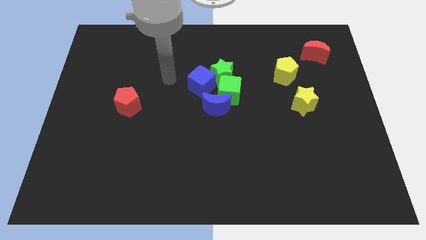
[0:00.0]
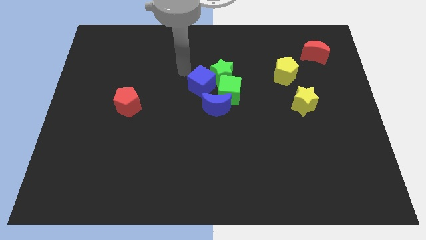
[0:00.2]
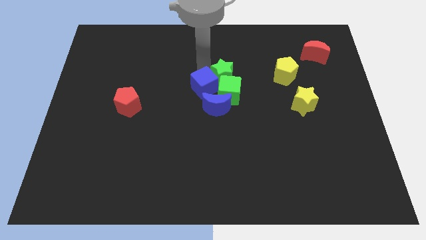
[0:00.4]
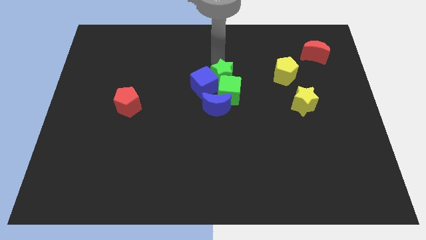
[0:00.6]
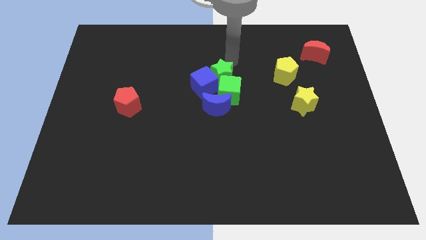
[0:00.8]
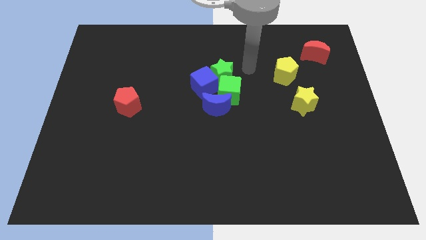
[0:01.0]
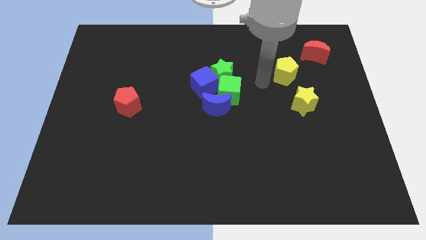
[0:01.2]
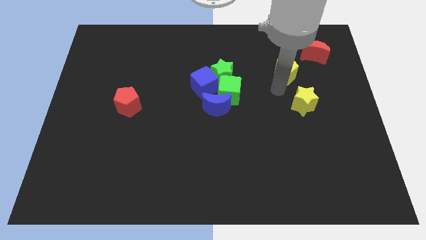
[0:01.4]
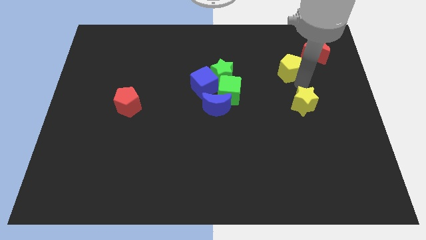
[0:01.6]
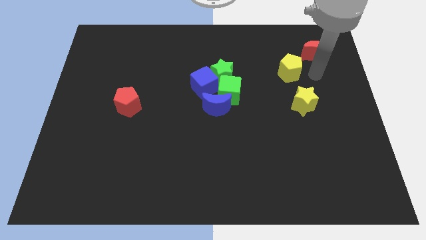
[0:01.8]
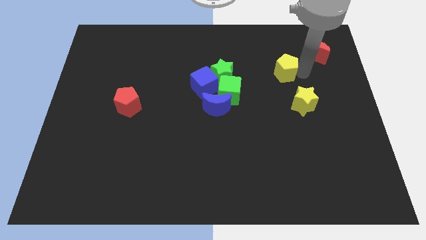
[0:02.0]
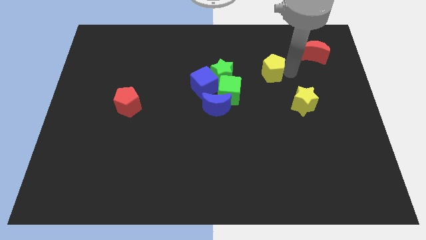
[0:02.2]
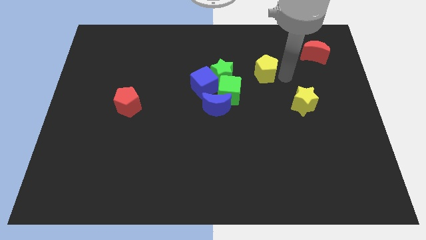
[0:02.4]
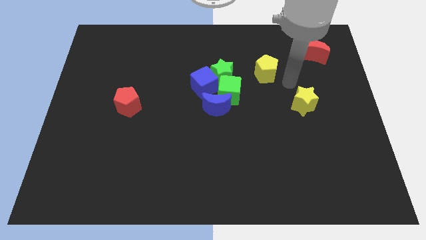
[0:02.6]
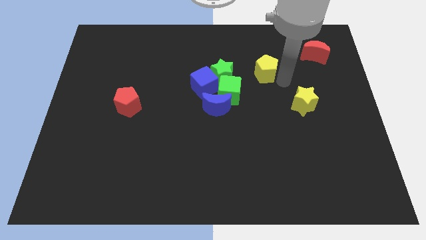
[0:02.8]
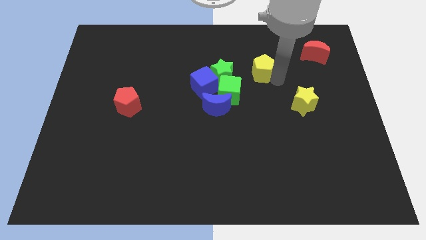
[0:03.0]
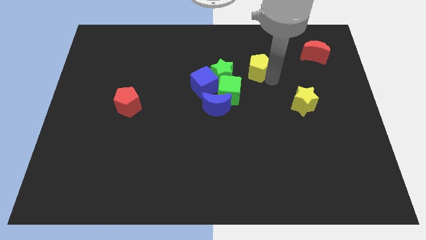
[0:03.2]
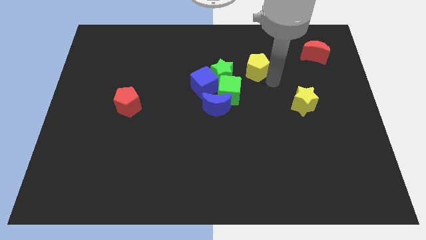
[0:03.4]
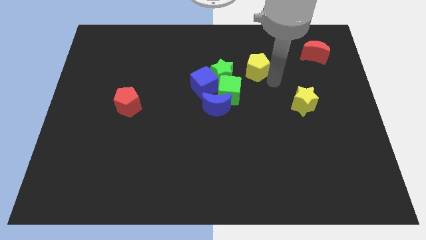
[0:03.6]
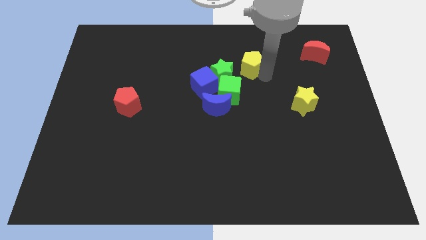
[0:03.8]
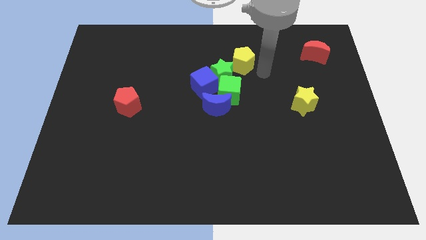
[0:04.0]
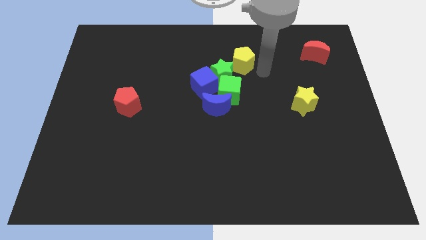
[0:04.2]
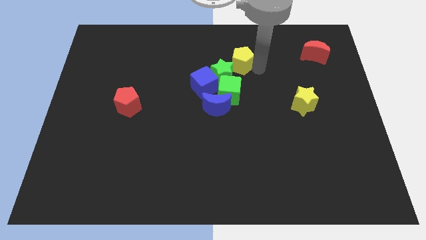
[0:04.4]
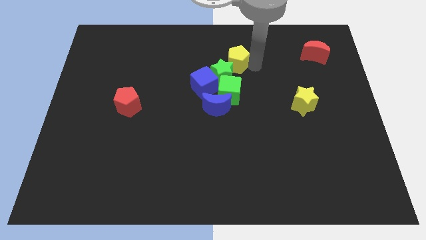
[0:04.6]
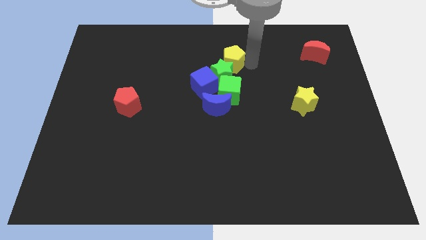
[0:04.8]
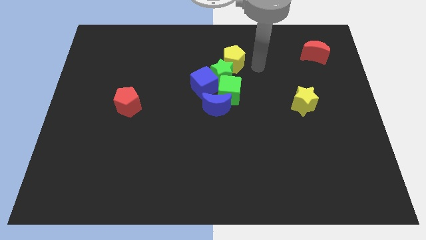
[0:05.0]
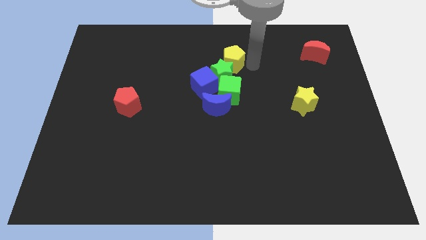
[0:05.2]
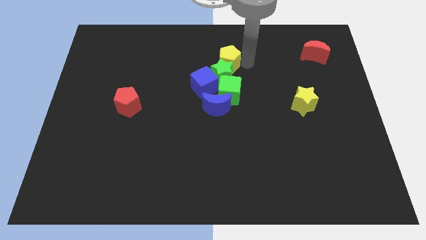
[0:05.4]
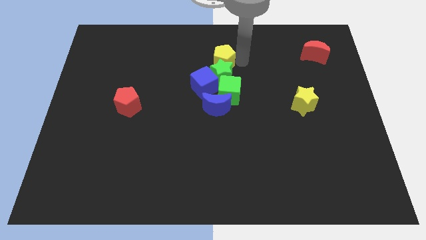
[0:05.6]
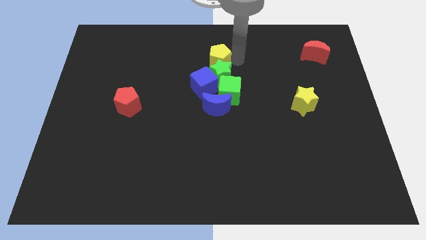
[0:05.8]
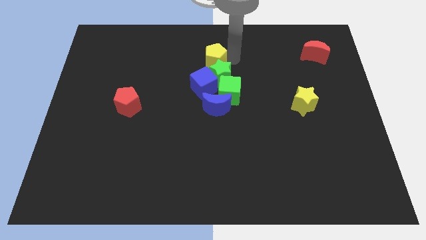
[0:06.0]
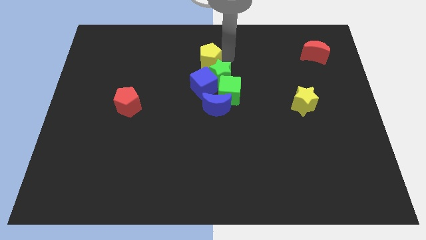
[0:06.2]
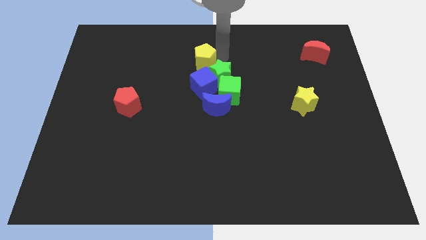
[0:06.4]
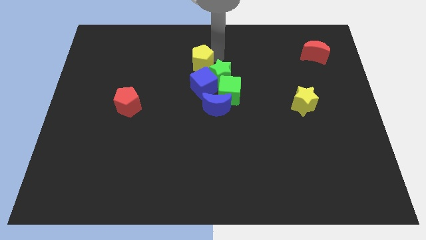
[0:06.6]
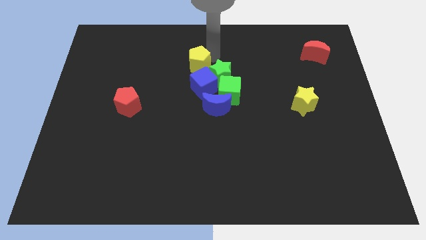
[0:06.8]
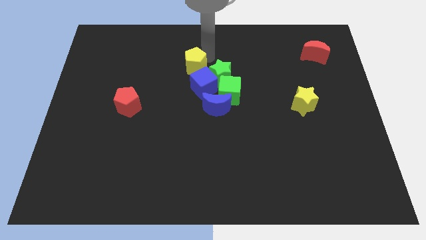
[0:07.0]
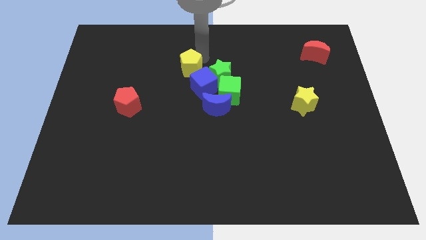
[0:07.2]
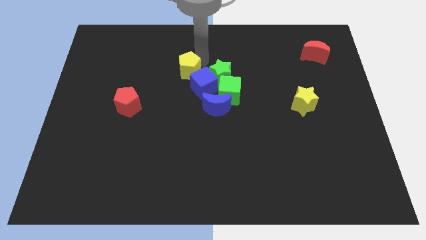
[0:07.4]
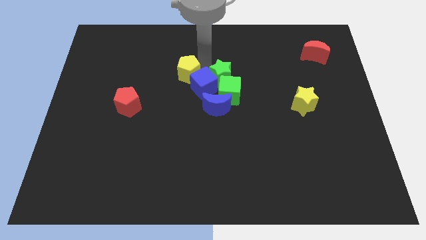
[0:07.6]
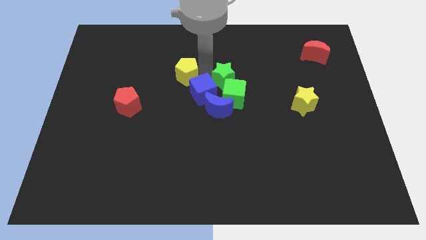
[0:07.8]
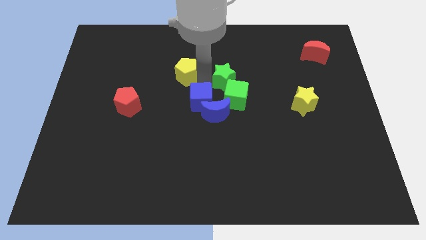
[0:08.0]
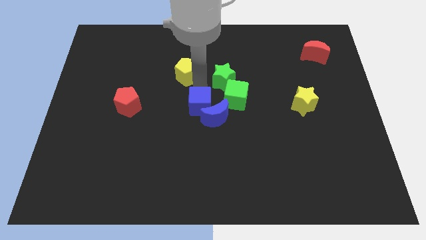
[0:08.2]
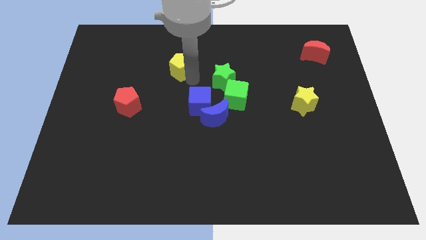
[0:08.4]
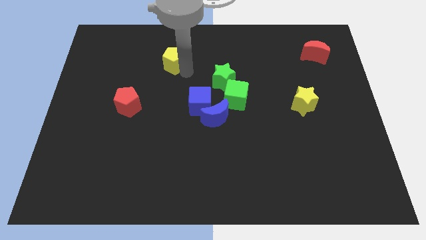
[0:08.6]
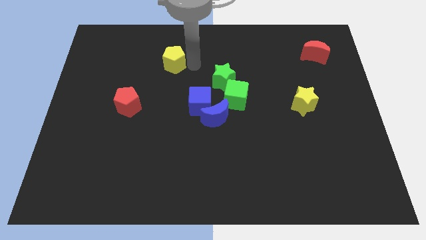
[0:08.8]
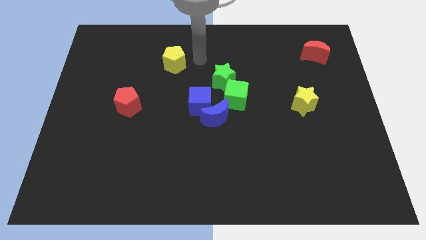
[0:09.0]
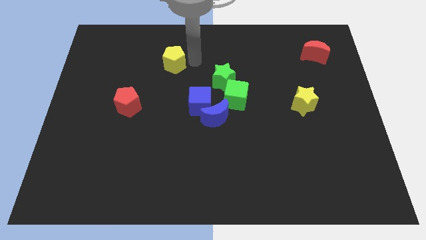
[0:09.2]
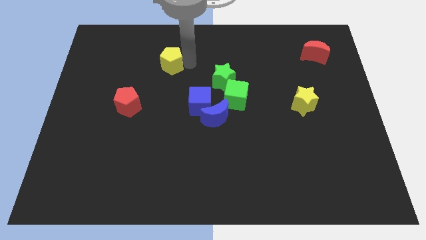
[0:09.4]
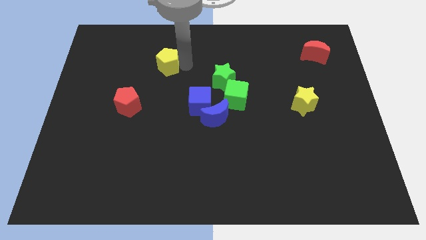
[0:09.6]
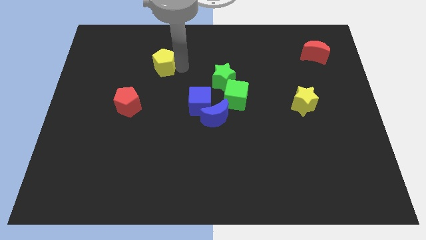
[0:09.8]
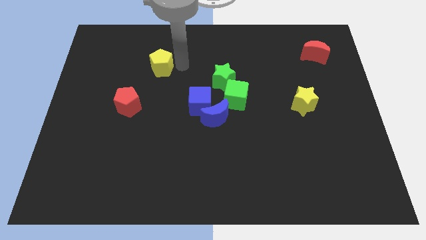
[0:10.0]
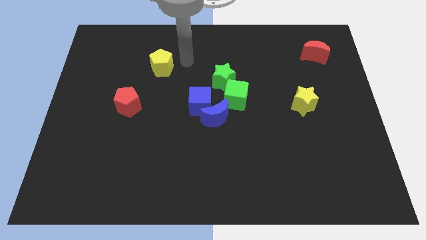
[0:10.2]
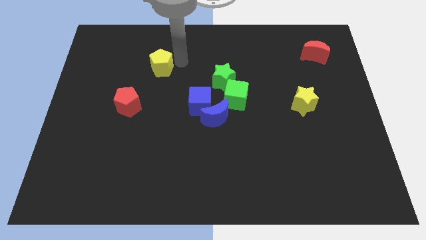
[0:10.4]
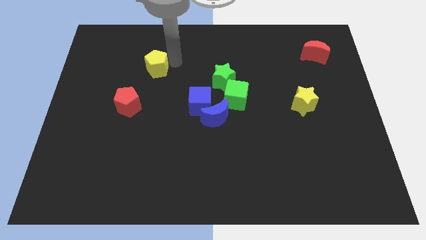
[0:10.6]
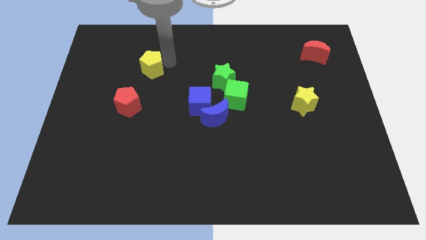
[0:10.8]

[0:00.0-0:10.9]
put the yellow pentagon above the red pentagon

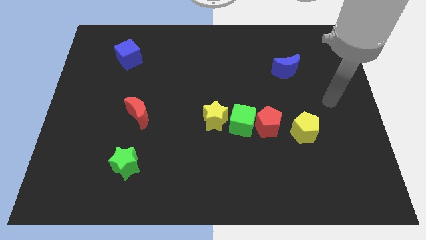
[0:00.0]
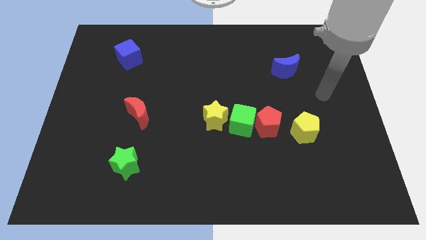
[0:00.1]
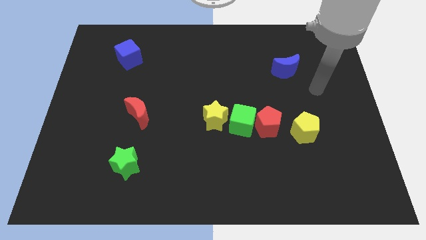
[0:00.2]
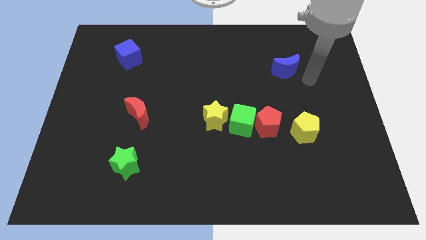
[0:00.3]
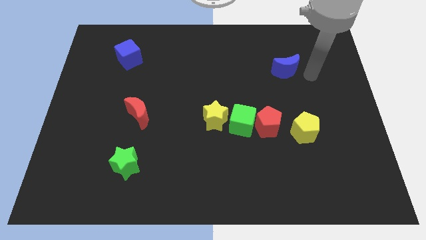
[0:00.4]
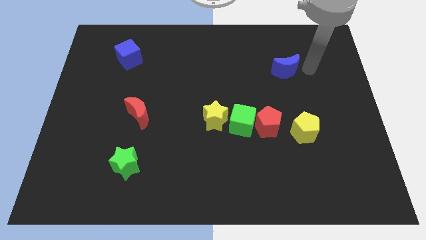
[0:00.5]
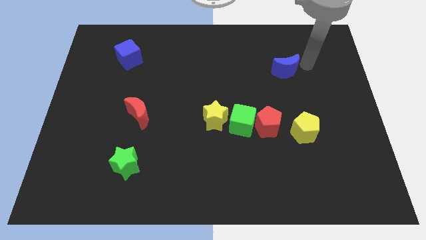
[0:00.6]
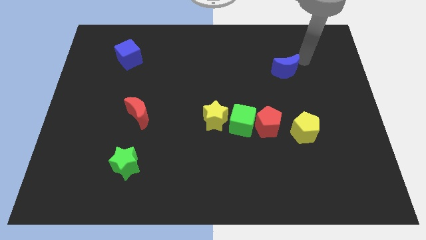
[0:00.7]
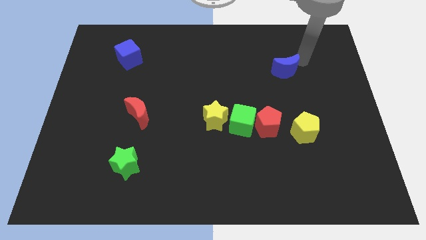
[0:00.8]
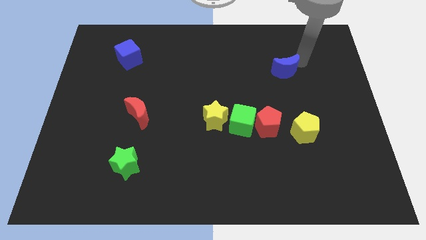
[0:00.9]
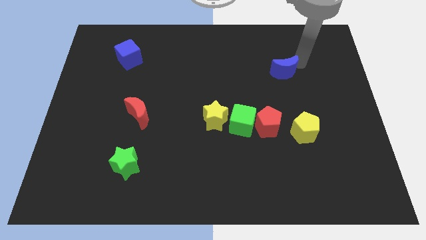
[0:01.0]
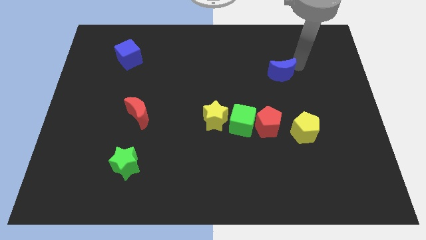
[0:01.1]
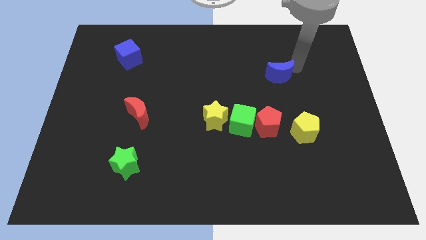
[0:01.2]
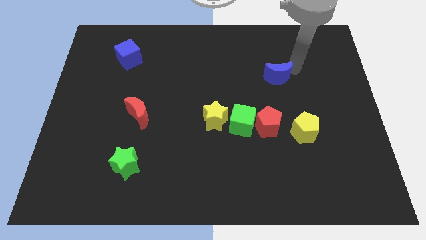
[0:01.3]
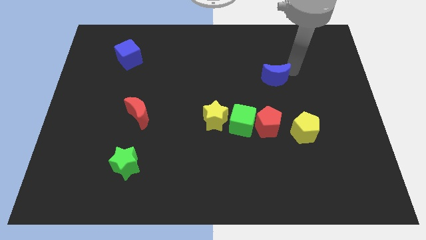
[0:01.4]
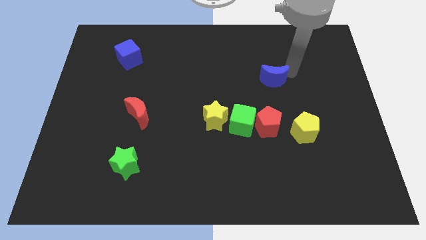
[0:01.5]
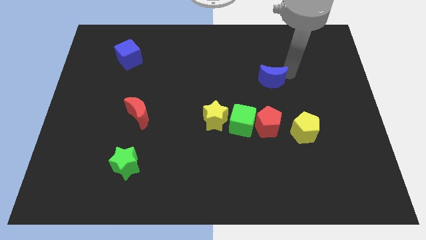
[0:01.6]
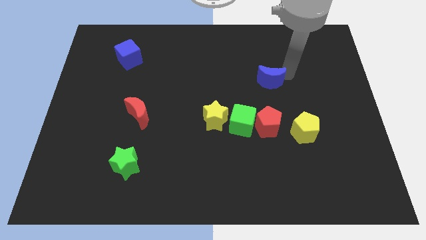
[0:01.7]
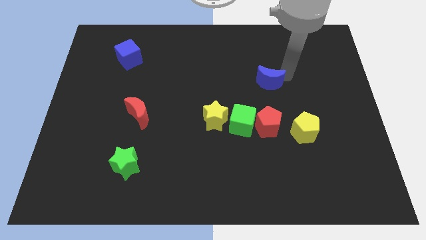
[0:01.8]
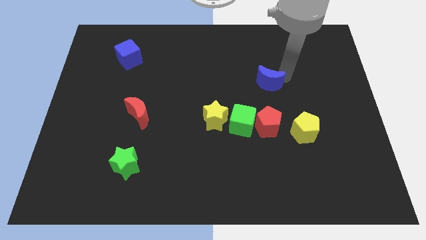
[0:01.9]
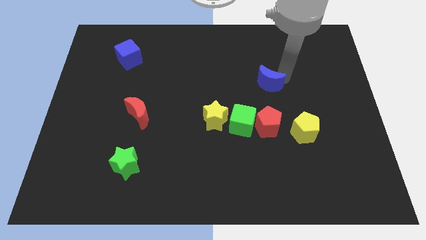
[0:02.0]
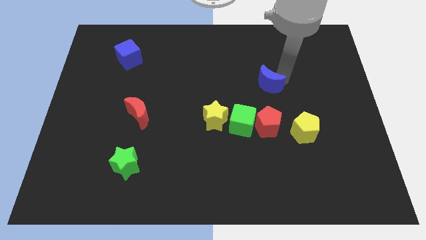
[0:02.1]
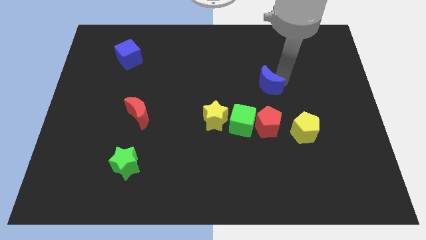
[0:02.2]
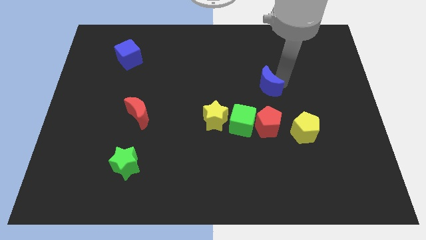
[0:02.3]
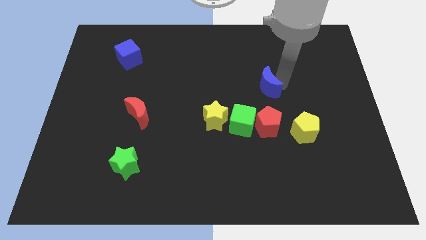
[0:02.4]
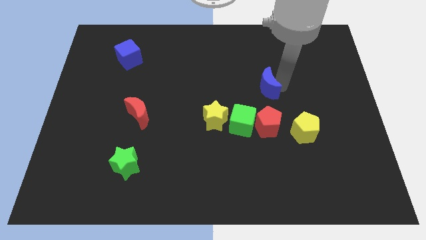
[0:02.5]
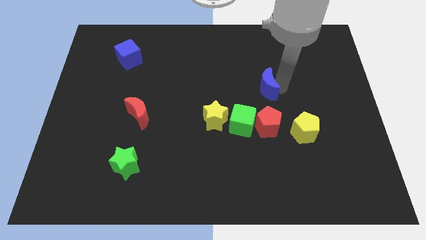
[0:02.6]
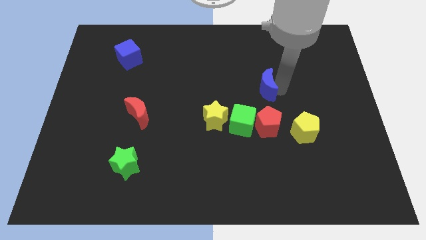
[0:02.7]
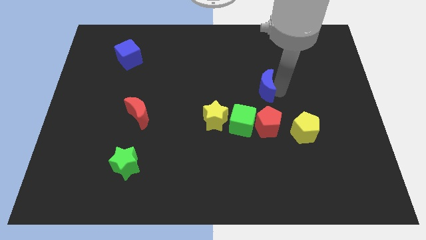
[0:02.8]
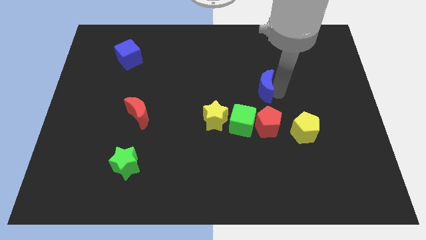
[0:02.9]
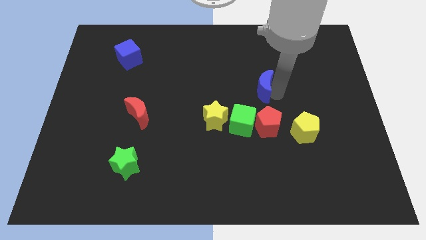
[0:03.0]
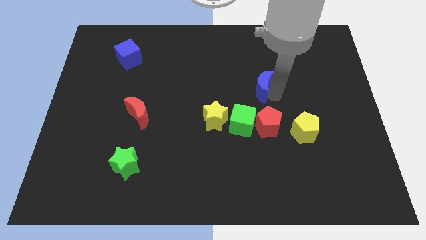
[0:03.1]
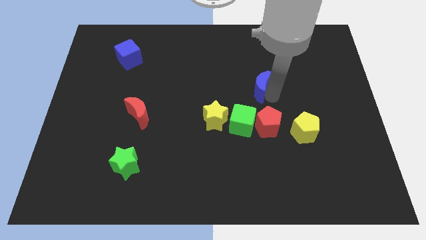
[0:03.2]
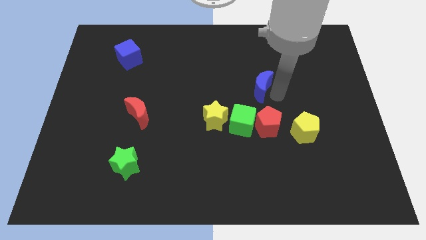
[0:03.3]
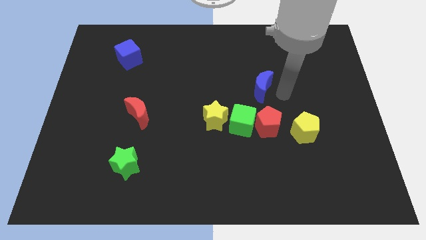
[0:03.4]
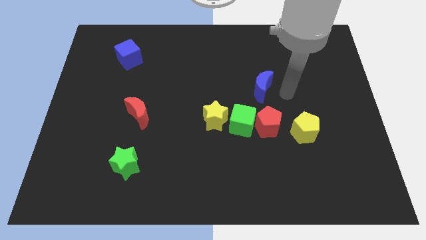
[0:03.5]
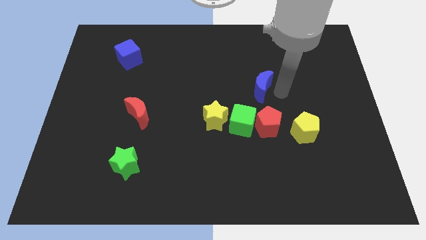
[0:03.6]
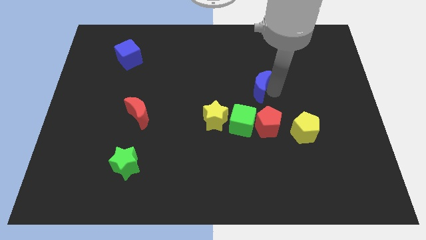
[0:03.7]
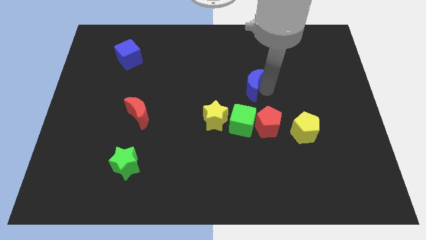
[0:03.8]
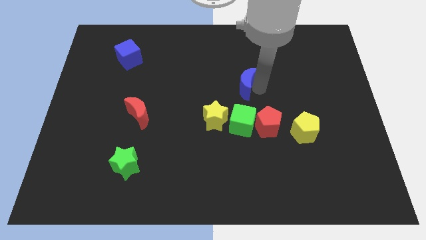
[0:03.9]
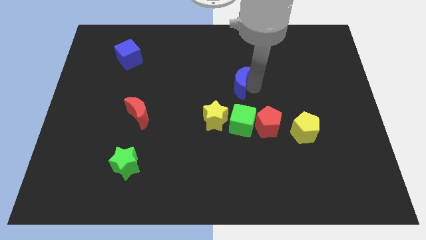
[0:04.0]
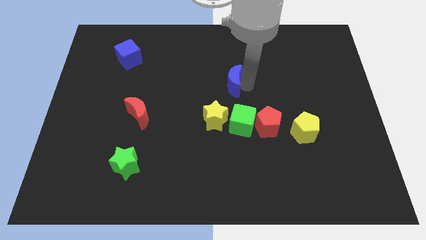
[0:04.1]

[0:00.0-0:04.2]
put the blue moon to the top of the yellow star
